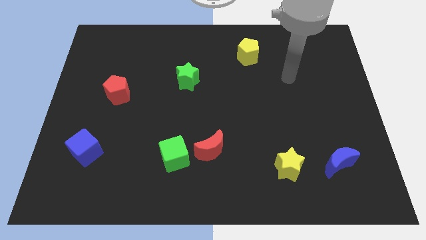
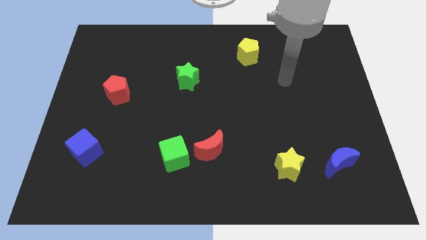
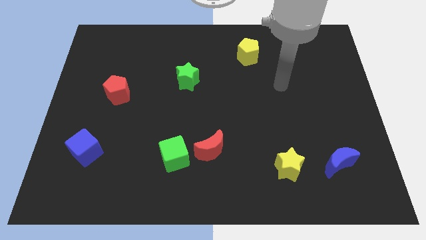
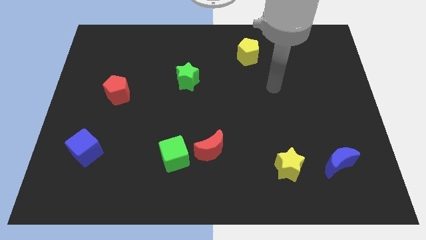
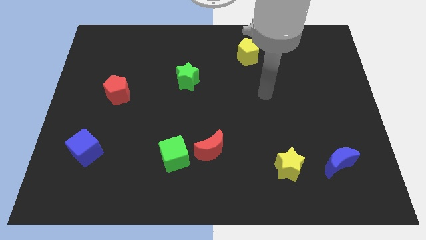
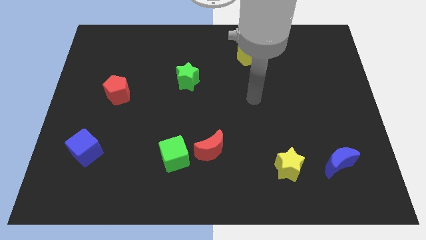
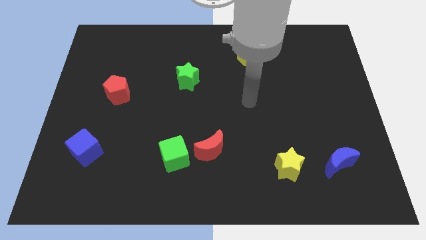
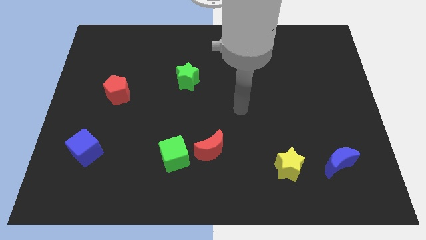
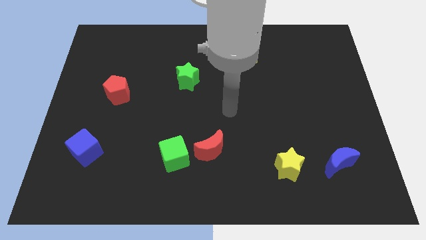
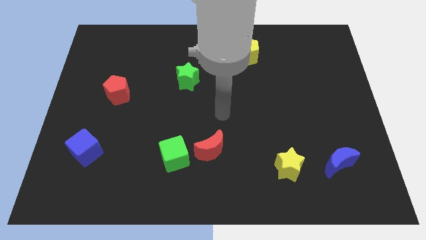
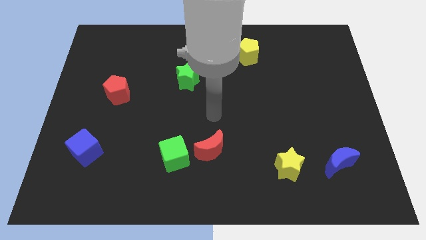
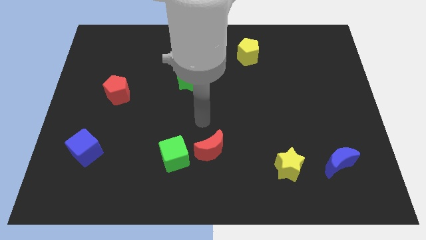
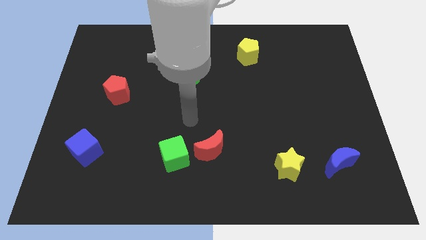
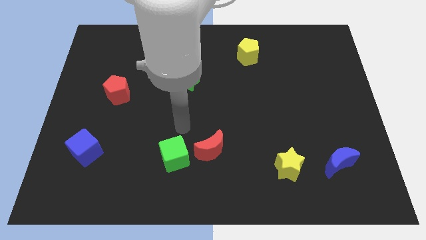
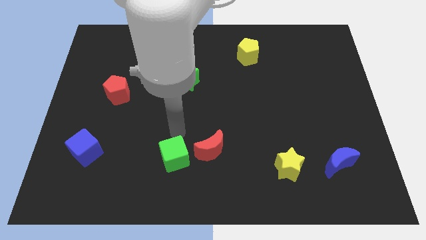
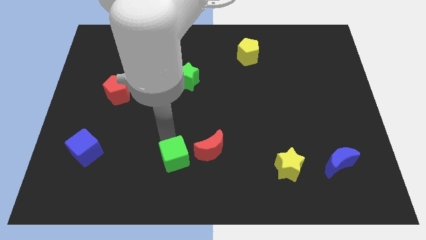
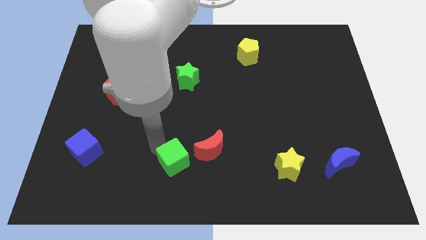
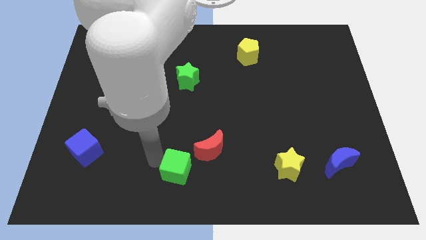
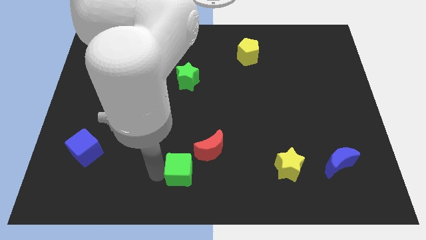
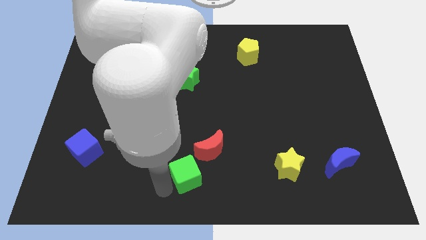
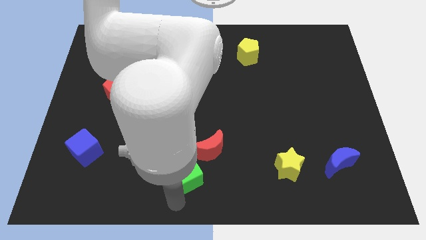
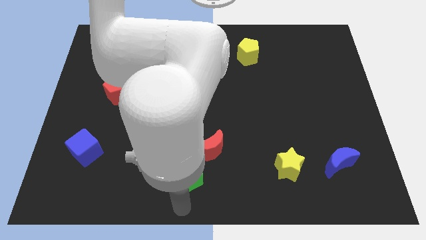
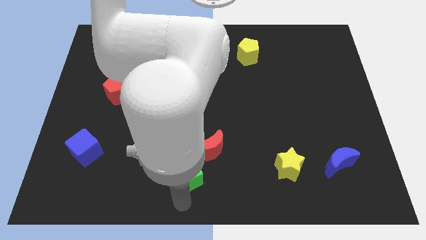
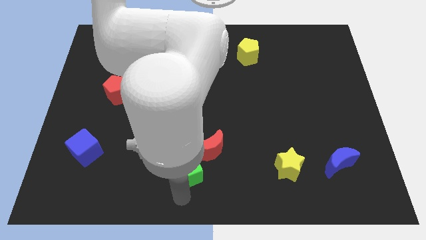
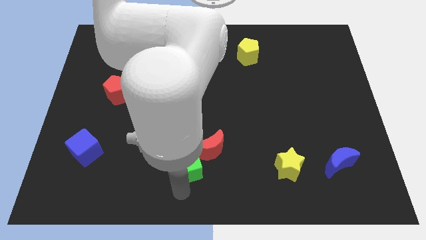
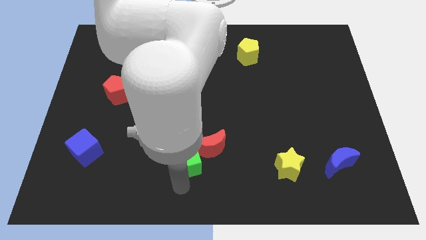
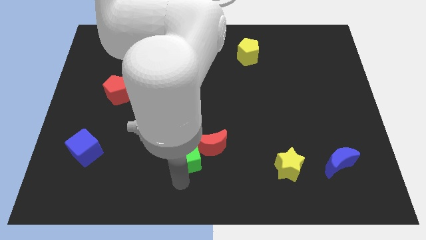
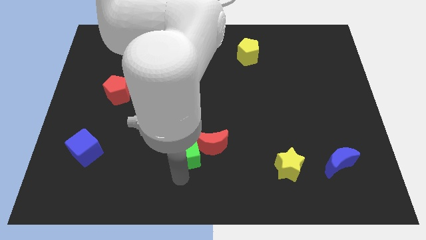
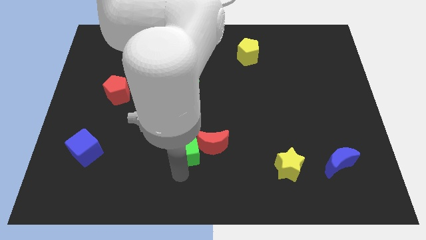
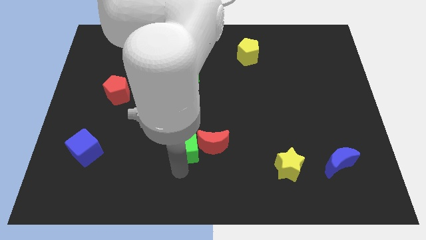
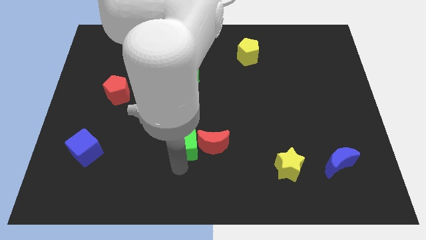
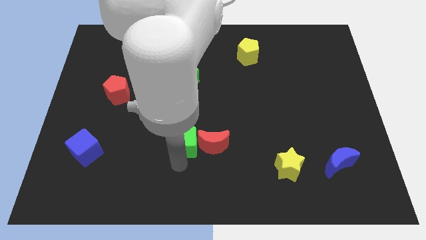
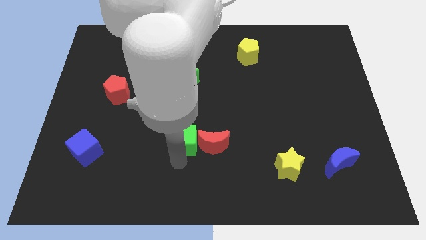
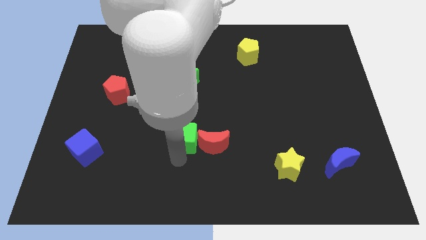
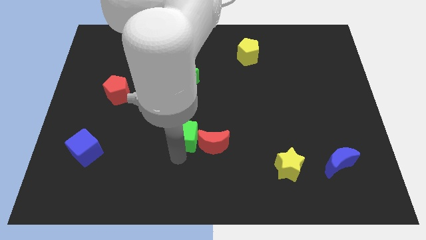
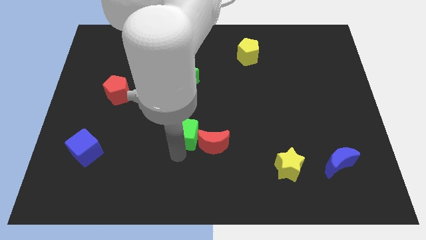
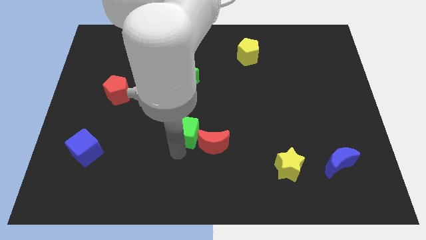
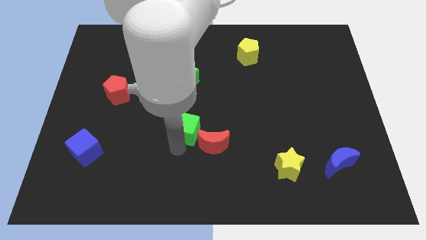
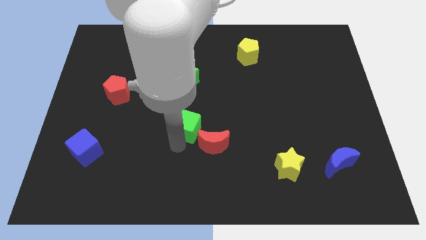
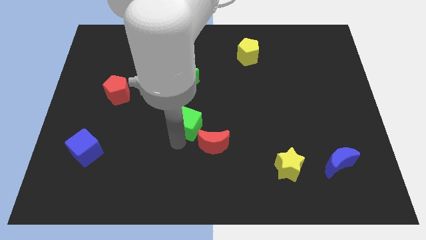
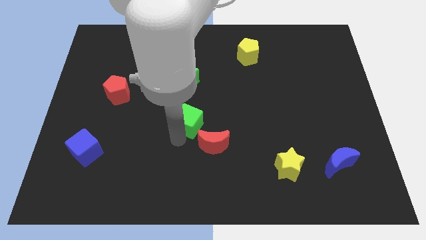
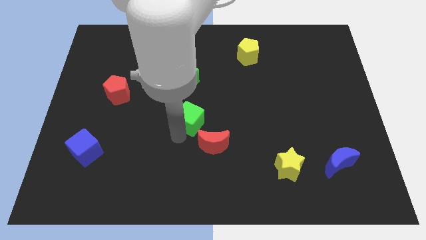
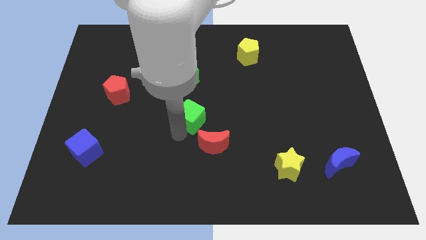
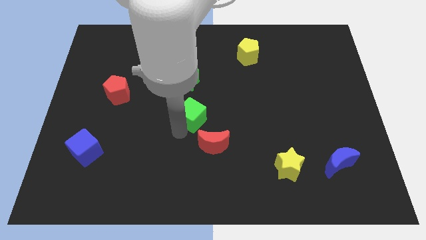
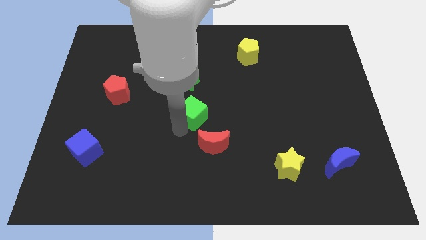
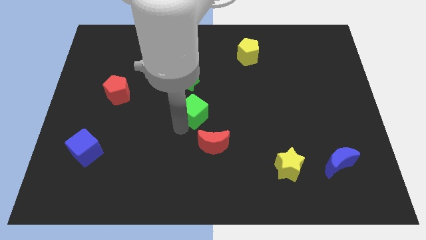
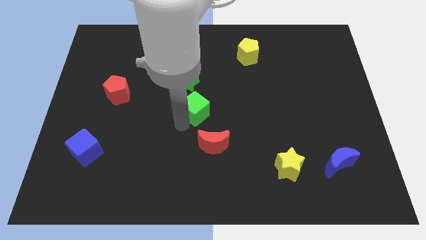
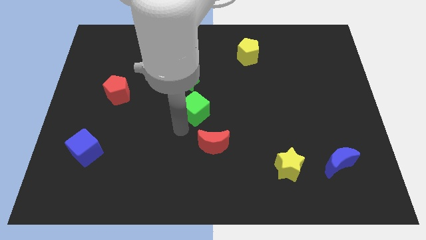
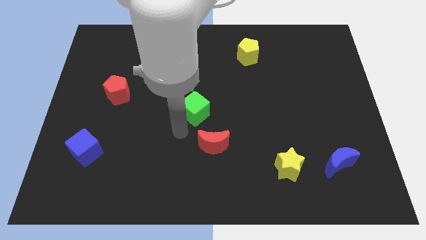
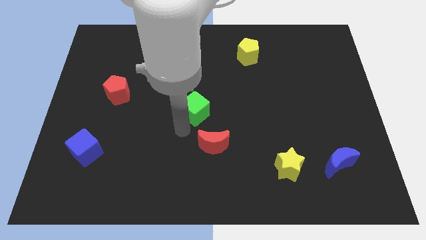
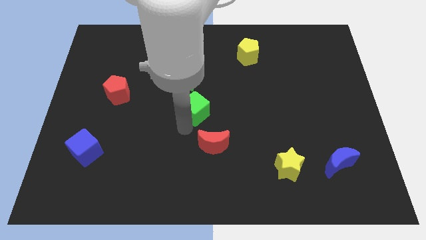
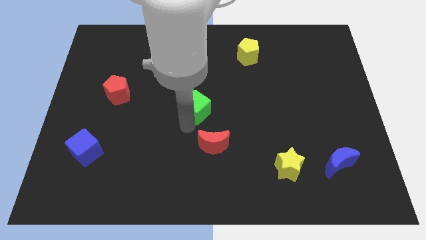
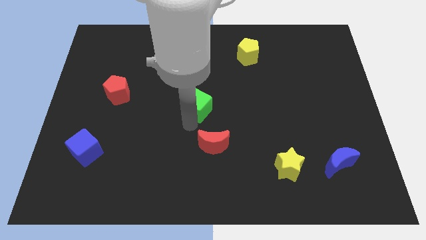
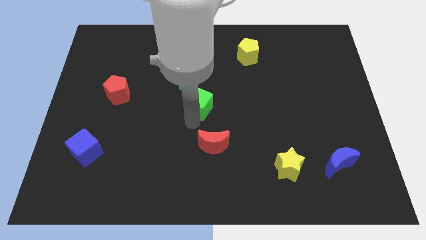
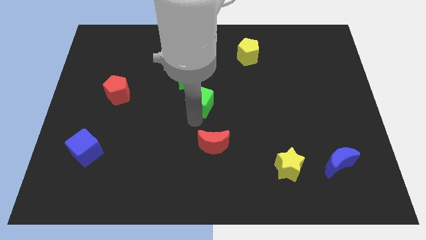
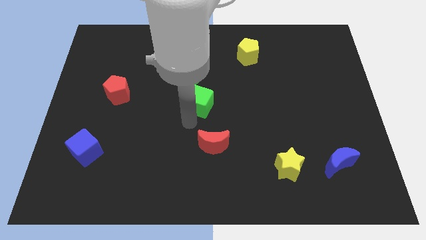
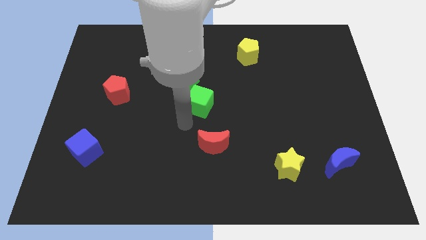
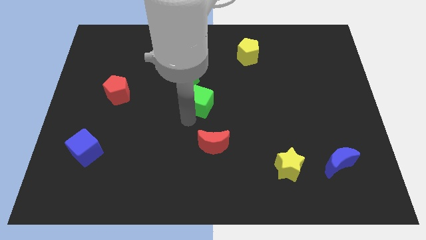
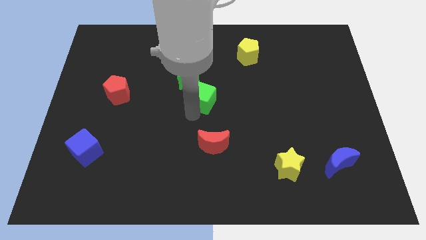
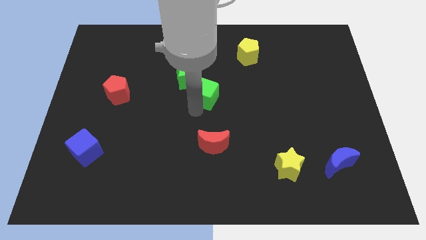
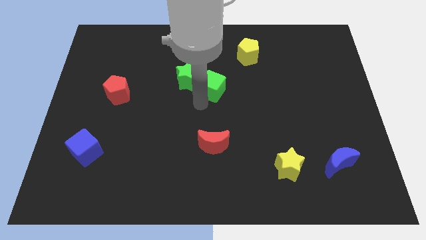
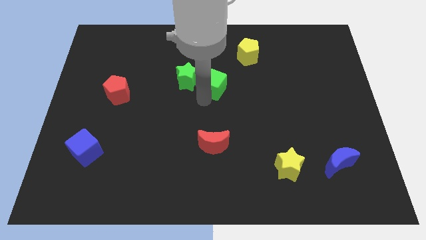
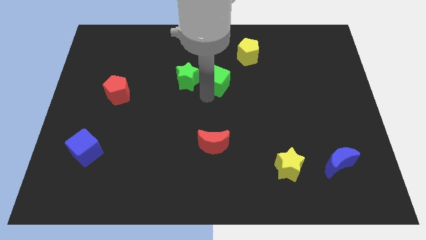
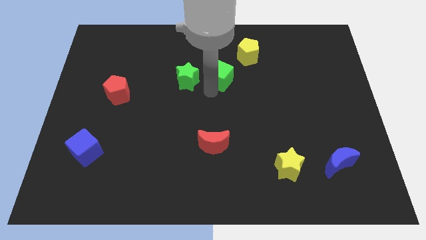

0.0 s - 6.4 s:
move the green cube to the bottom left of the yellow pentagon

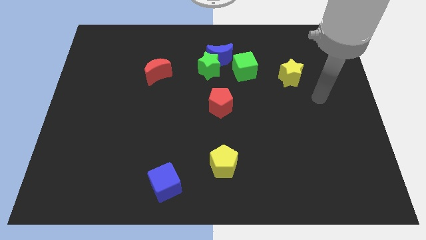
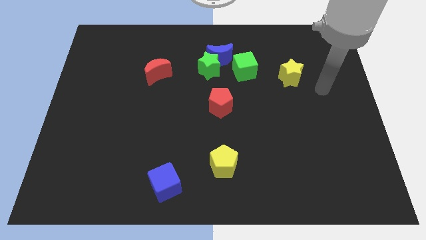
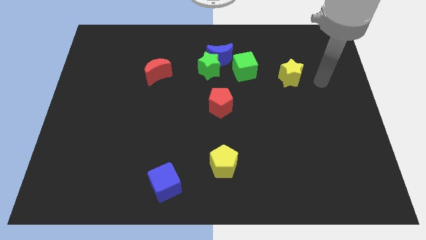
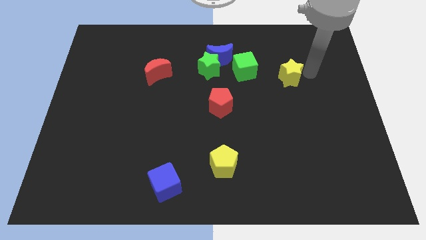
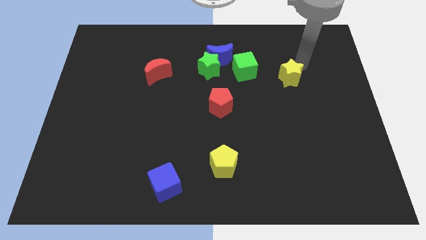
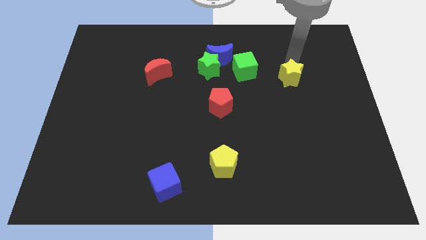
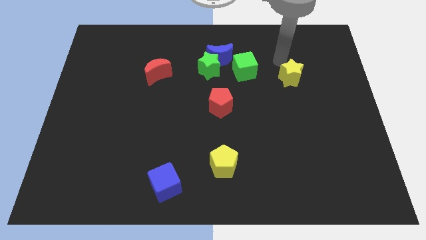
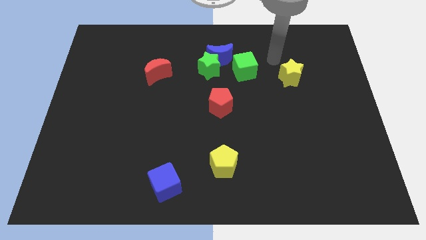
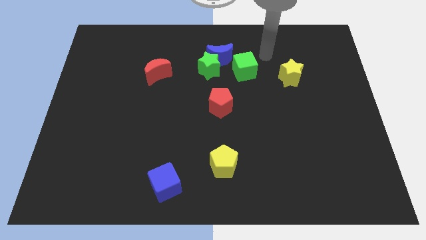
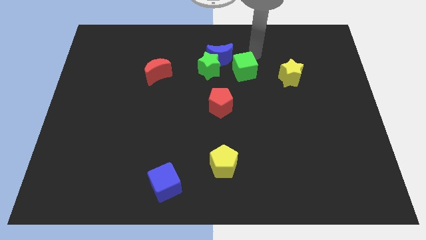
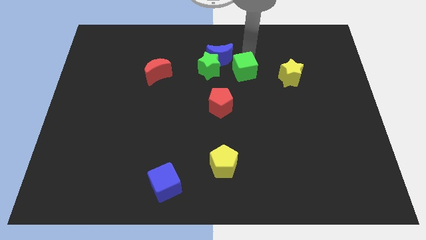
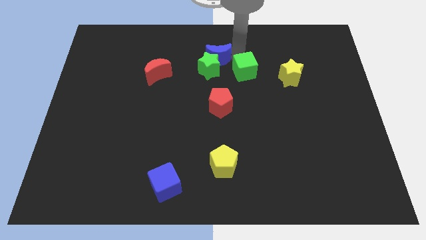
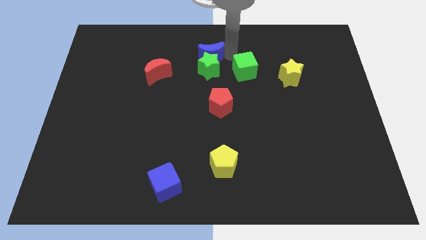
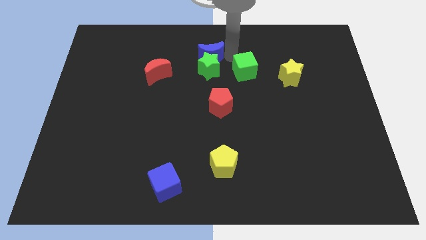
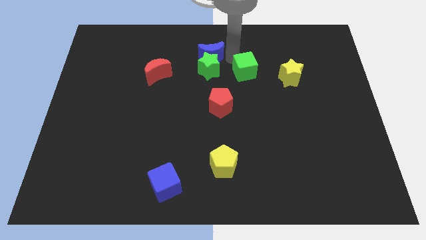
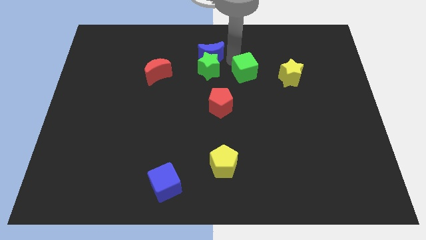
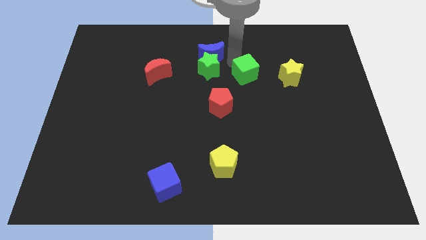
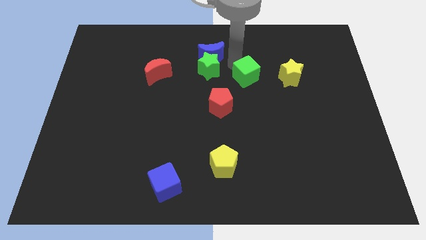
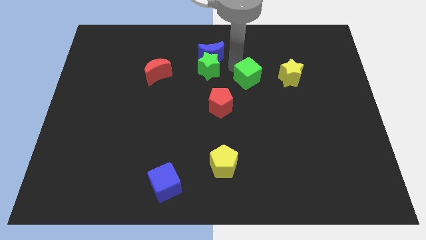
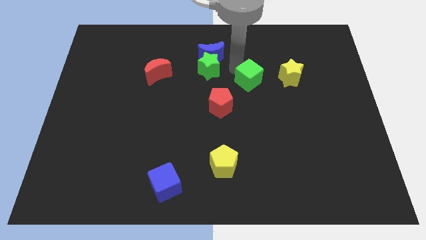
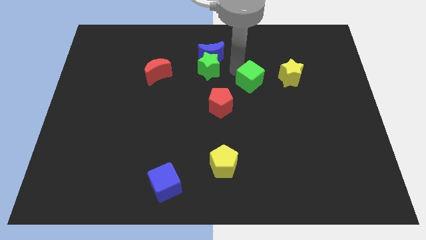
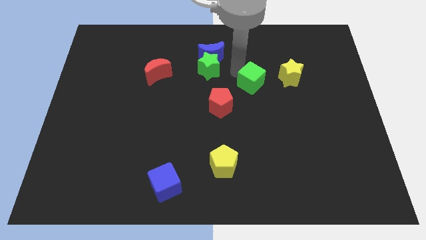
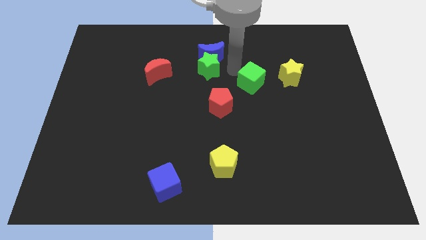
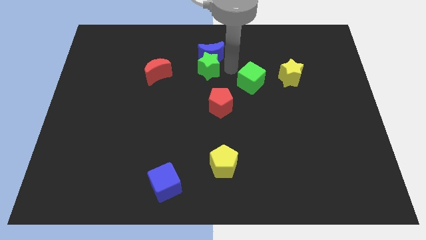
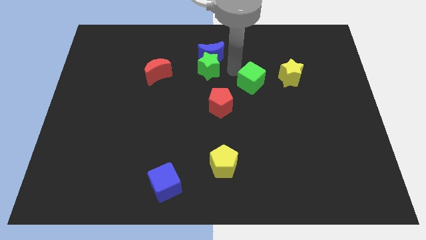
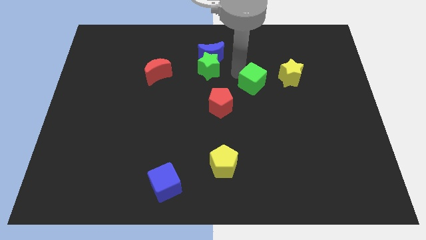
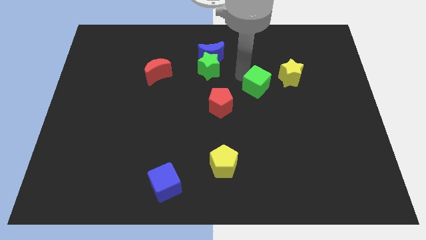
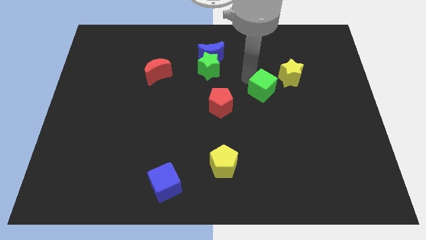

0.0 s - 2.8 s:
move the green cube to the right side of the red pentagon
